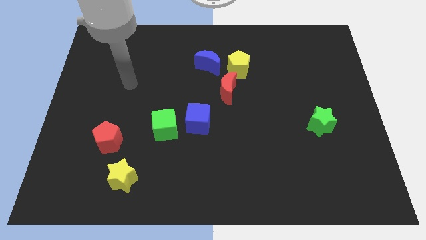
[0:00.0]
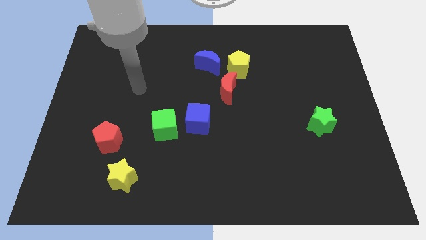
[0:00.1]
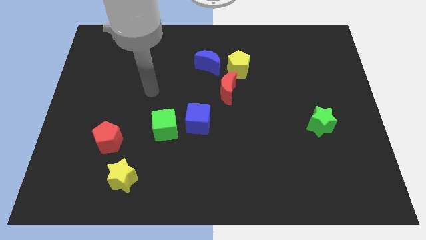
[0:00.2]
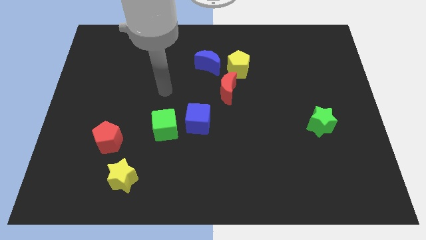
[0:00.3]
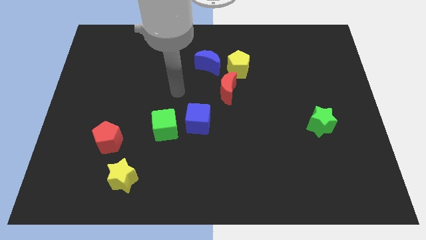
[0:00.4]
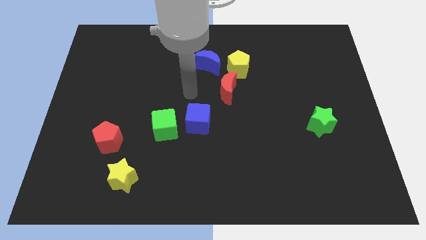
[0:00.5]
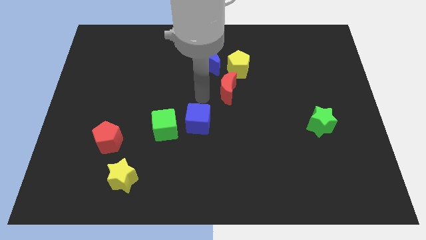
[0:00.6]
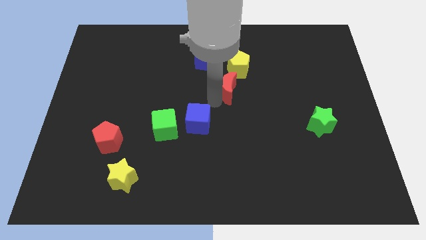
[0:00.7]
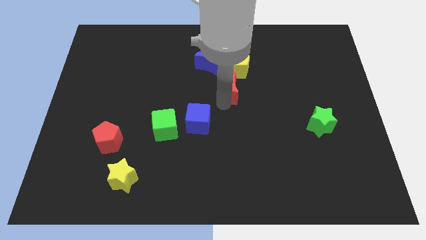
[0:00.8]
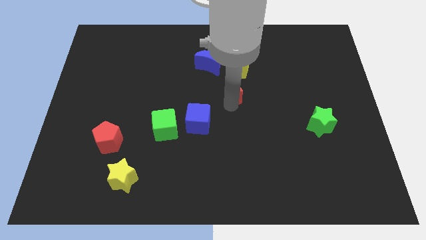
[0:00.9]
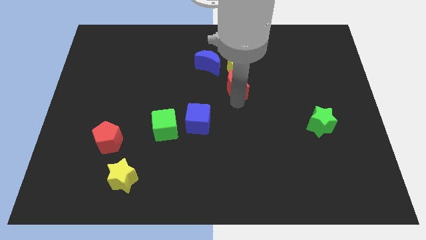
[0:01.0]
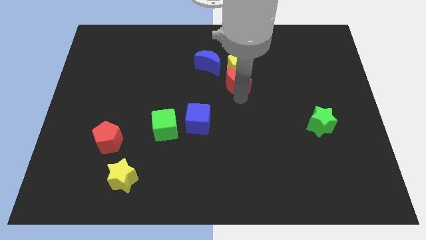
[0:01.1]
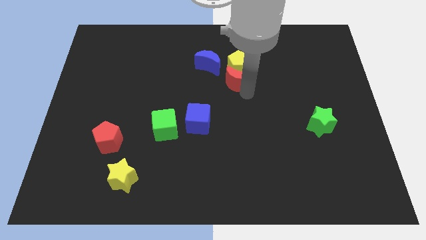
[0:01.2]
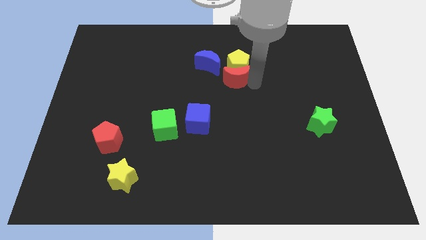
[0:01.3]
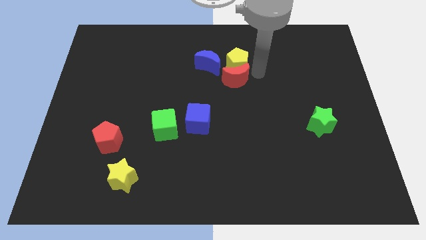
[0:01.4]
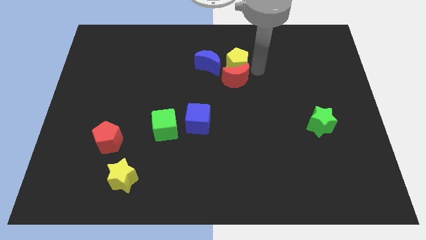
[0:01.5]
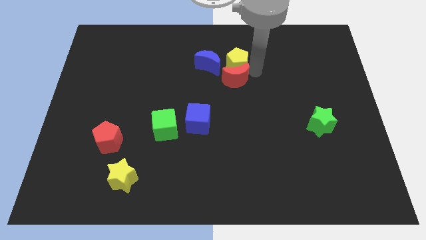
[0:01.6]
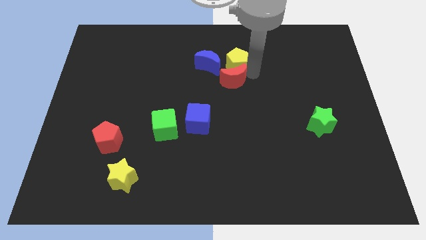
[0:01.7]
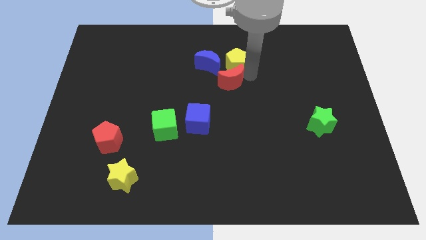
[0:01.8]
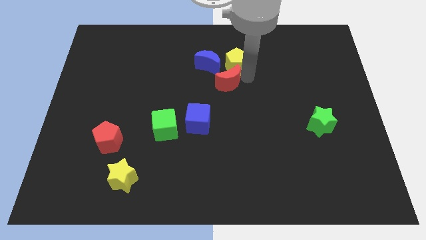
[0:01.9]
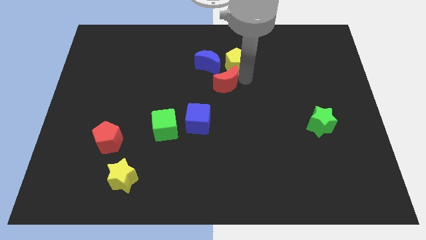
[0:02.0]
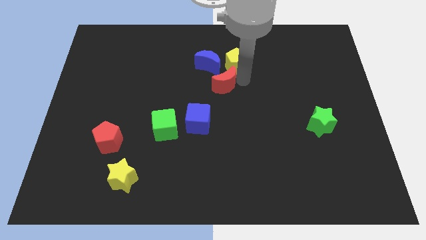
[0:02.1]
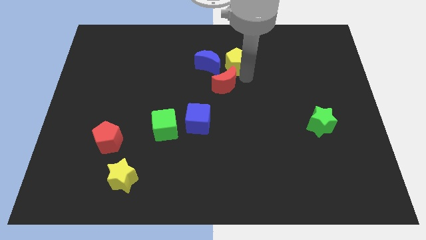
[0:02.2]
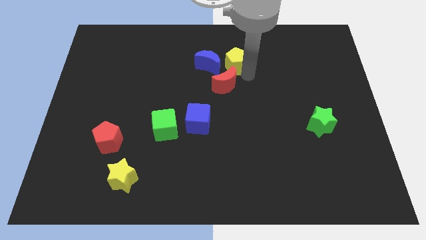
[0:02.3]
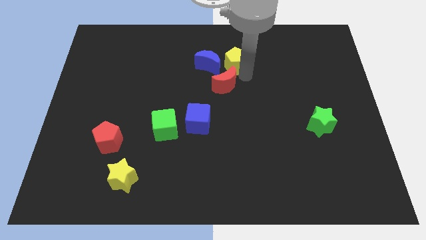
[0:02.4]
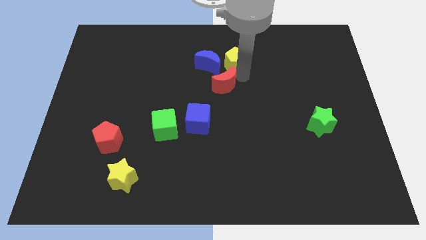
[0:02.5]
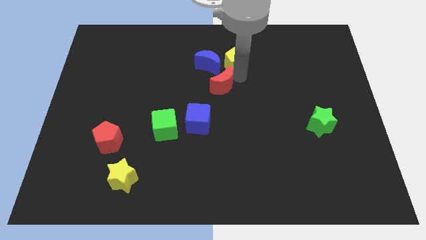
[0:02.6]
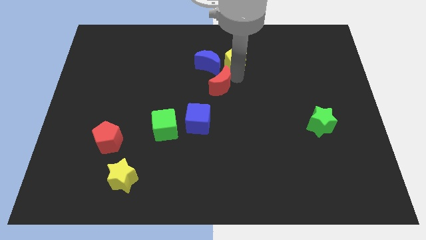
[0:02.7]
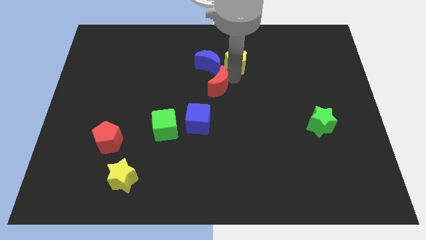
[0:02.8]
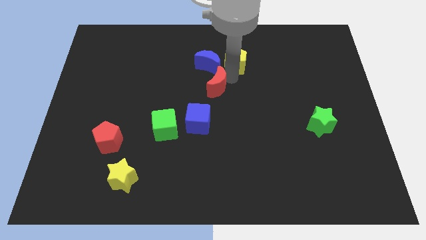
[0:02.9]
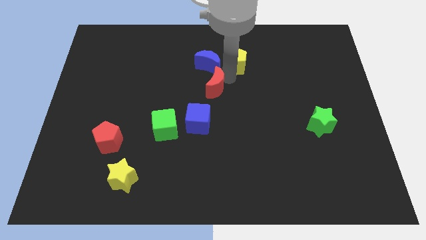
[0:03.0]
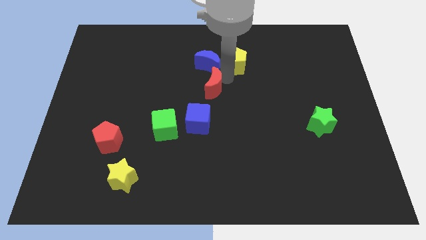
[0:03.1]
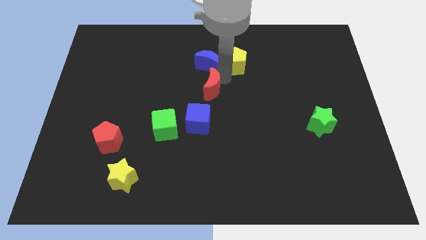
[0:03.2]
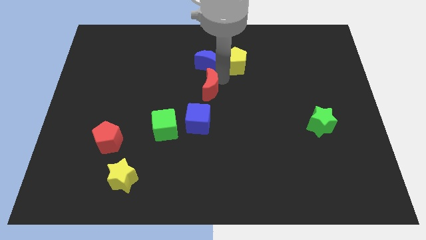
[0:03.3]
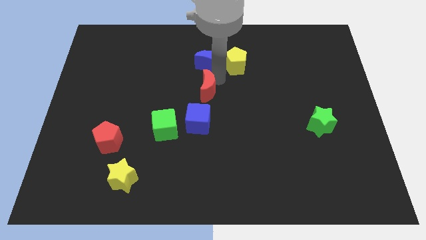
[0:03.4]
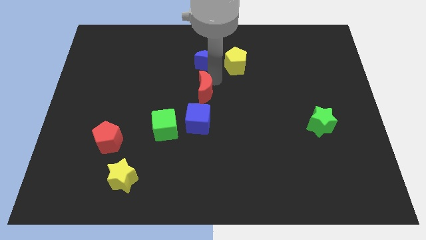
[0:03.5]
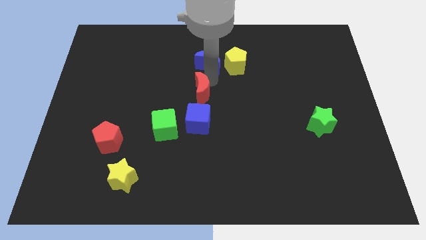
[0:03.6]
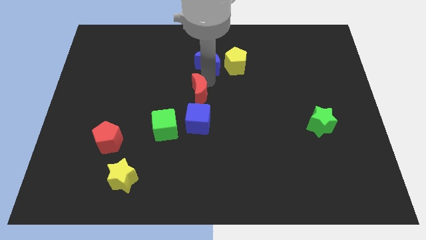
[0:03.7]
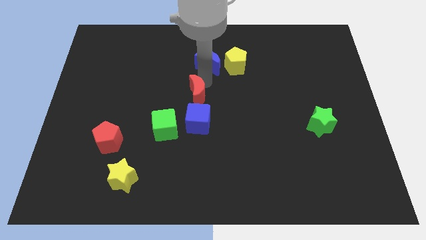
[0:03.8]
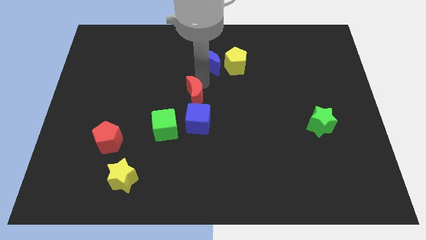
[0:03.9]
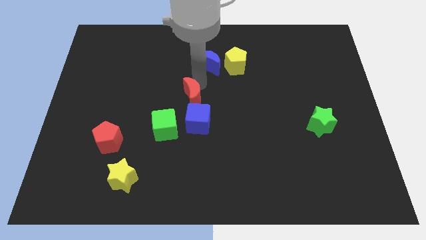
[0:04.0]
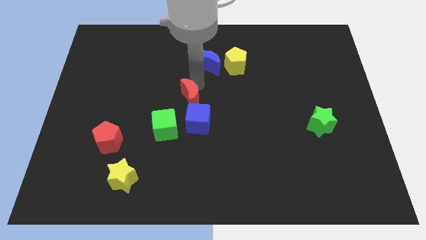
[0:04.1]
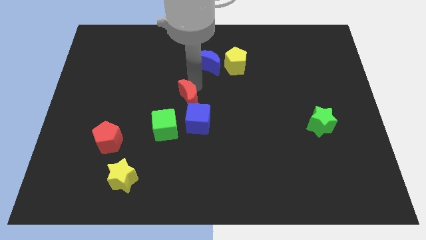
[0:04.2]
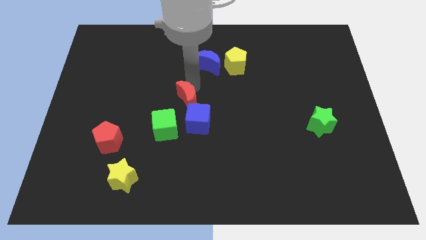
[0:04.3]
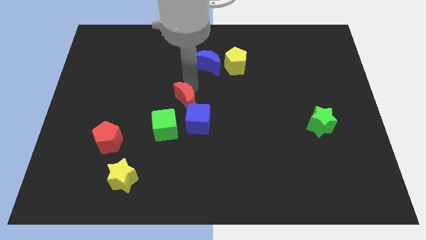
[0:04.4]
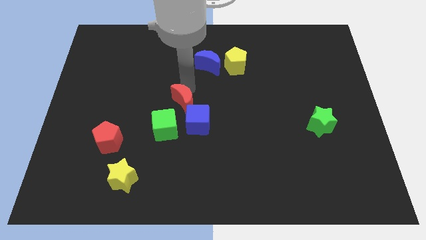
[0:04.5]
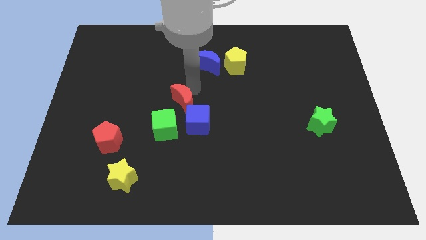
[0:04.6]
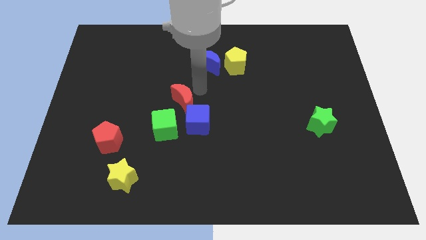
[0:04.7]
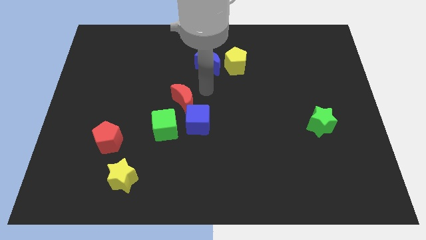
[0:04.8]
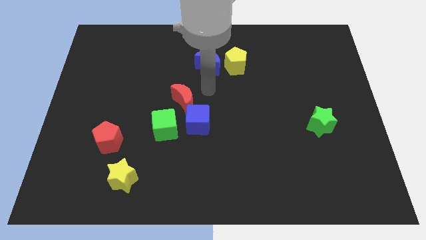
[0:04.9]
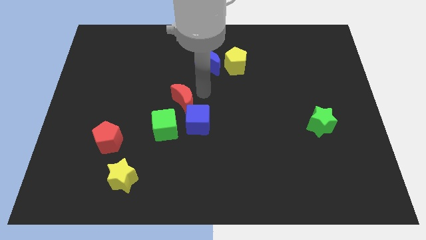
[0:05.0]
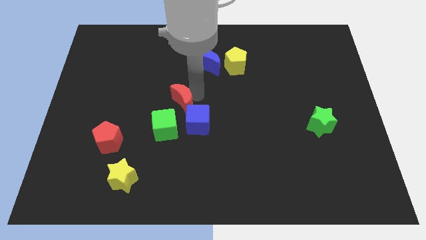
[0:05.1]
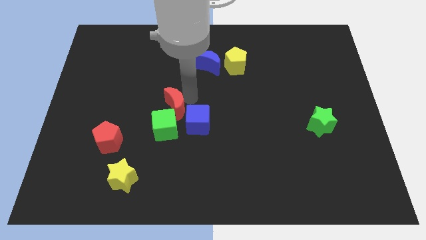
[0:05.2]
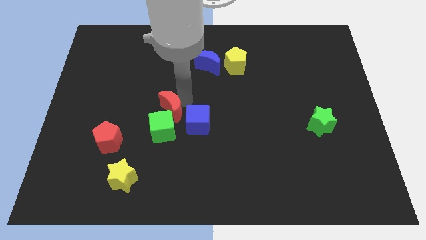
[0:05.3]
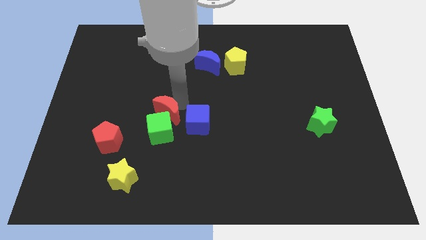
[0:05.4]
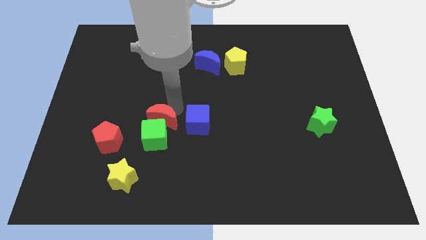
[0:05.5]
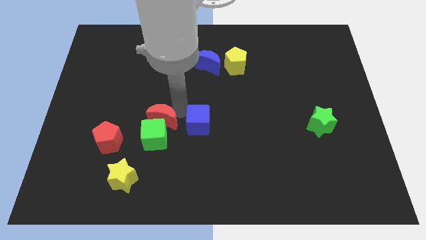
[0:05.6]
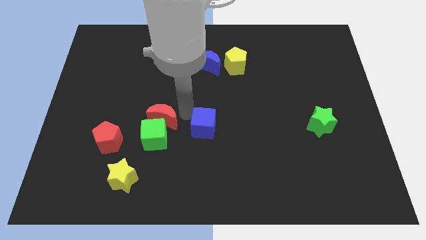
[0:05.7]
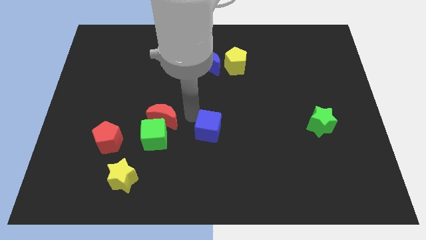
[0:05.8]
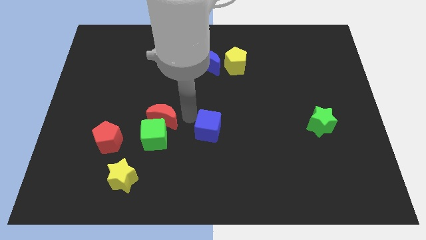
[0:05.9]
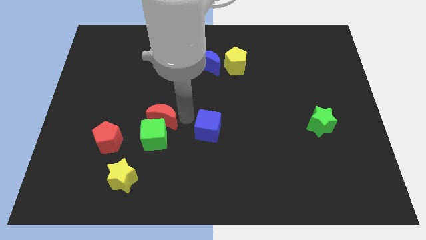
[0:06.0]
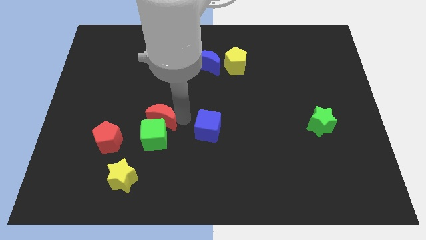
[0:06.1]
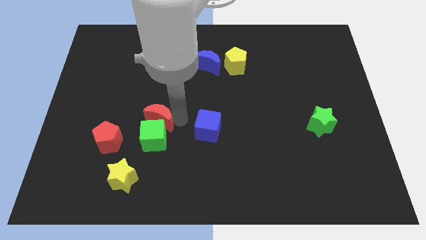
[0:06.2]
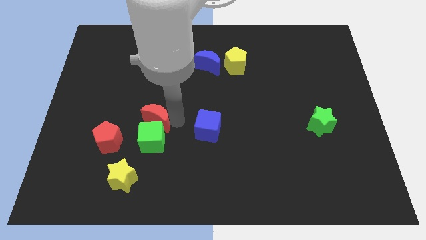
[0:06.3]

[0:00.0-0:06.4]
slide the red moon diagonally up and to the right of the red pentagon

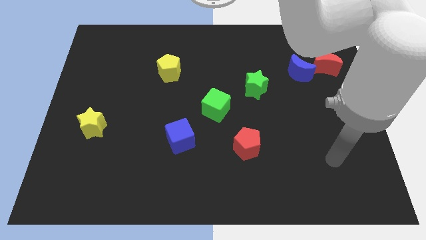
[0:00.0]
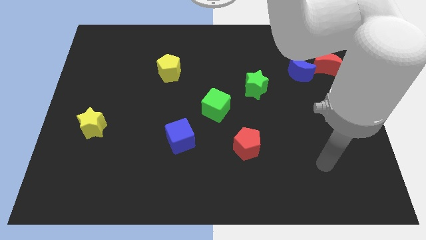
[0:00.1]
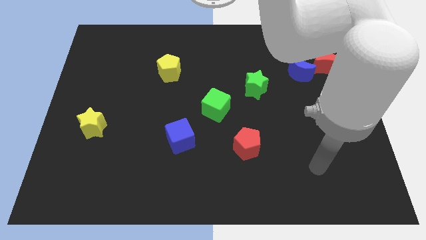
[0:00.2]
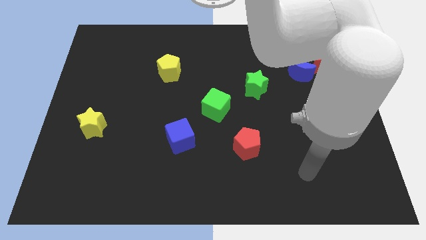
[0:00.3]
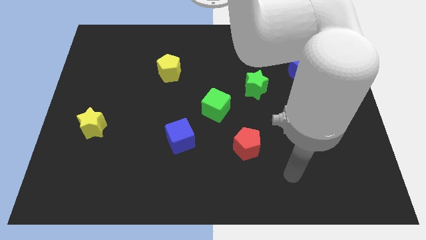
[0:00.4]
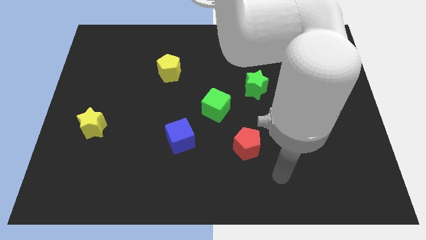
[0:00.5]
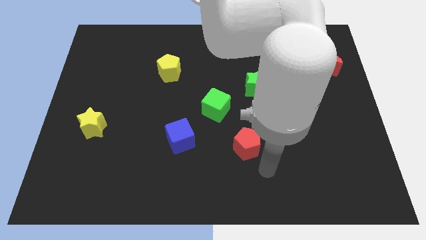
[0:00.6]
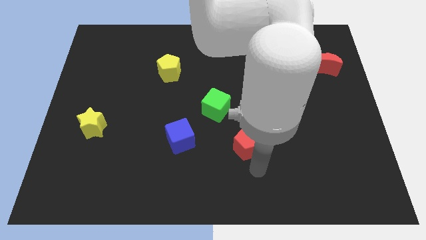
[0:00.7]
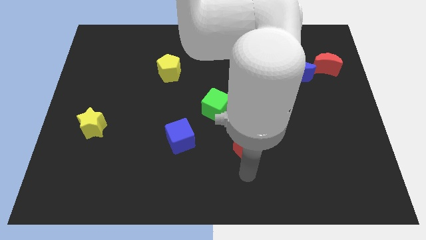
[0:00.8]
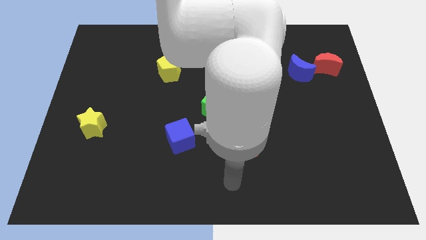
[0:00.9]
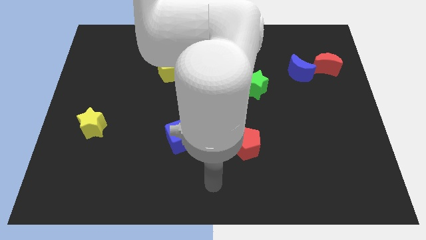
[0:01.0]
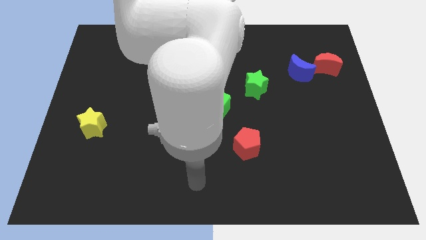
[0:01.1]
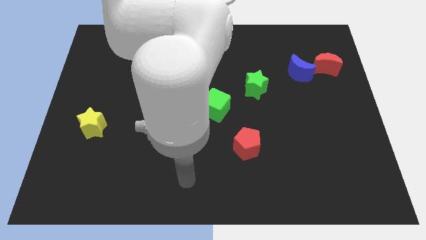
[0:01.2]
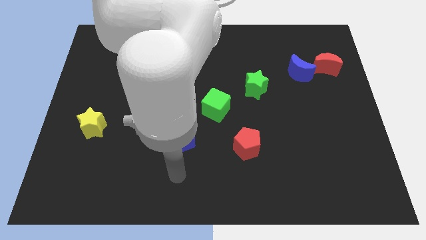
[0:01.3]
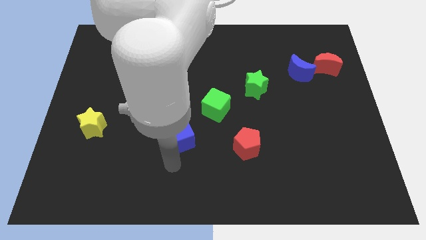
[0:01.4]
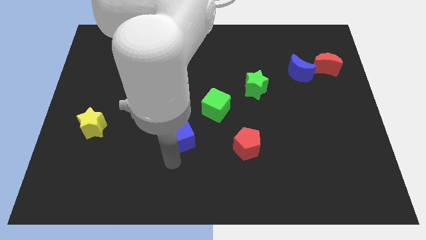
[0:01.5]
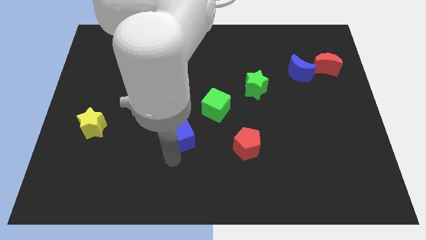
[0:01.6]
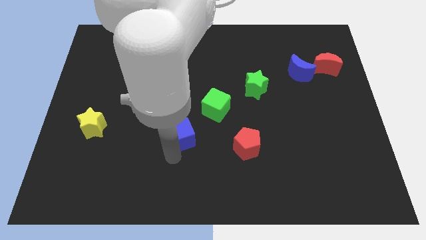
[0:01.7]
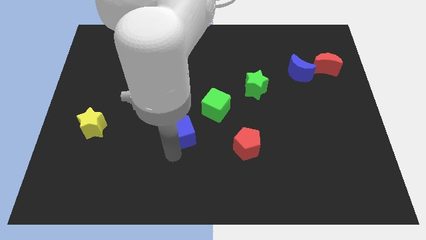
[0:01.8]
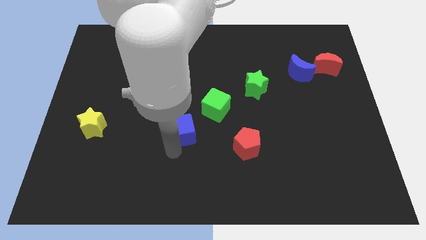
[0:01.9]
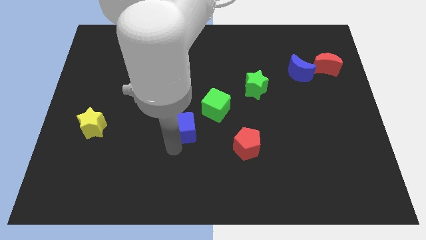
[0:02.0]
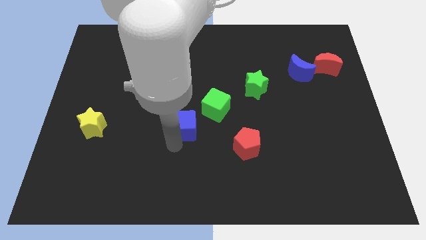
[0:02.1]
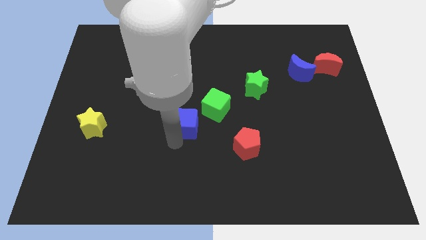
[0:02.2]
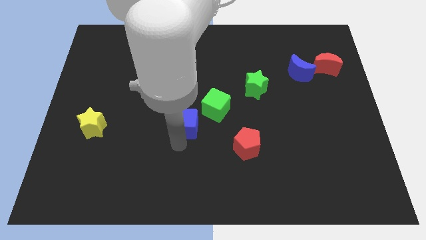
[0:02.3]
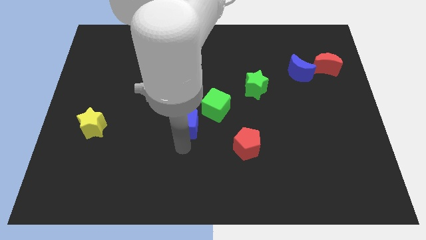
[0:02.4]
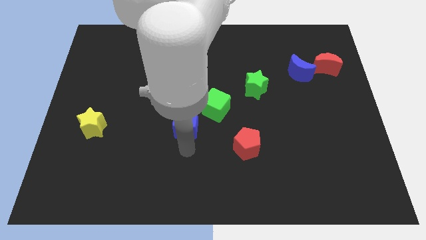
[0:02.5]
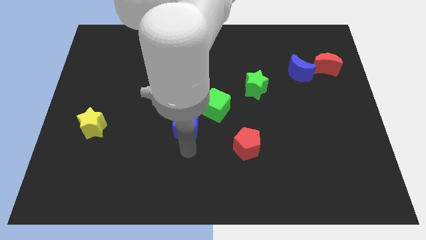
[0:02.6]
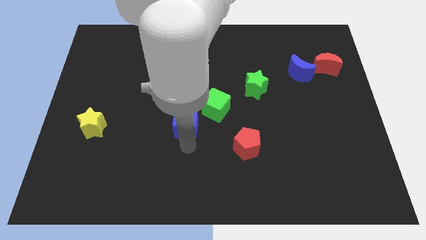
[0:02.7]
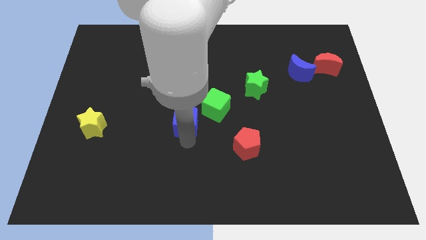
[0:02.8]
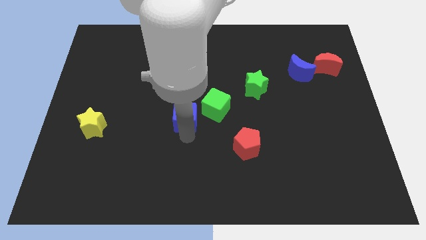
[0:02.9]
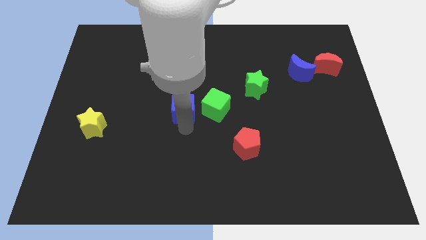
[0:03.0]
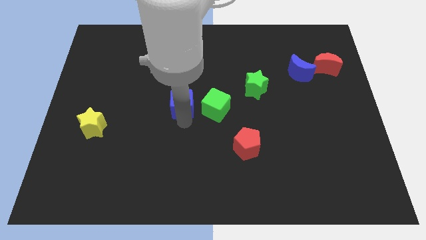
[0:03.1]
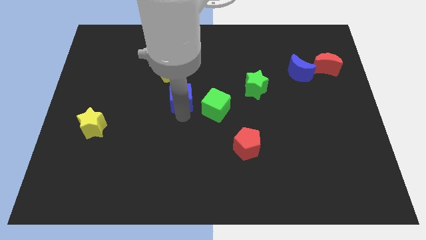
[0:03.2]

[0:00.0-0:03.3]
slide the blue cube to the bottom right side of the yellow pentagon
